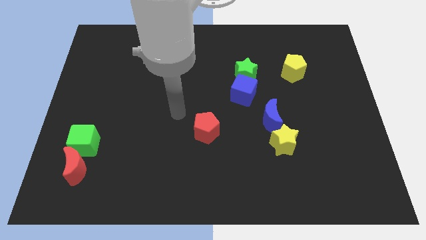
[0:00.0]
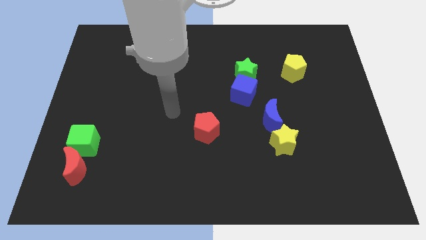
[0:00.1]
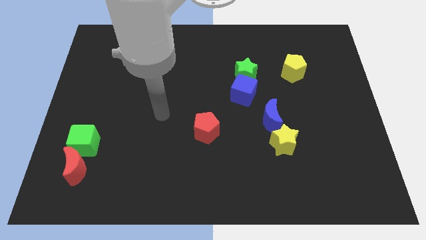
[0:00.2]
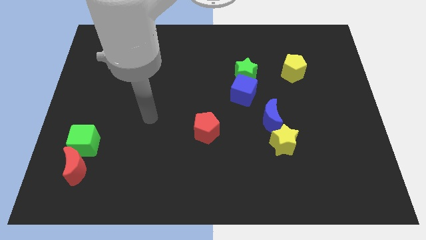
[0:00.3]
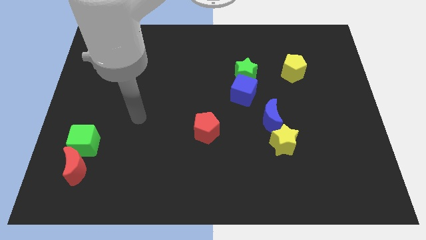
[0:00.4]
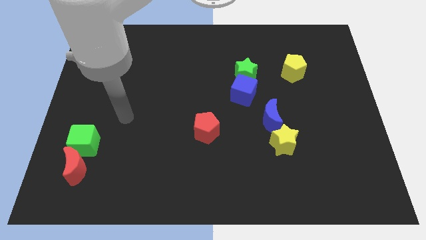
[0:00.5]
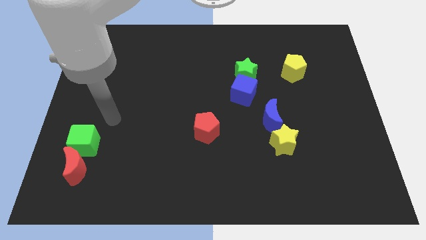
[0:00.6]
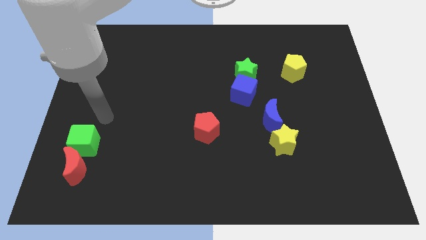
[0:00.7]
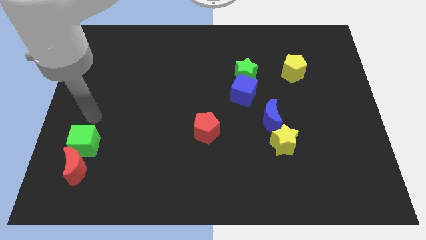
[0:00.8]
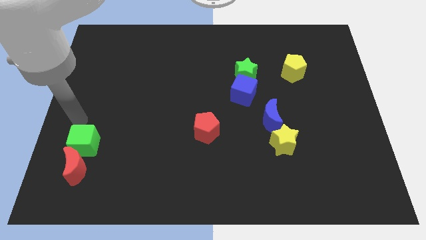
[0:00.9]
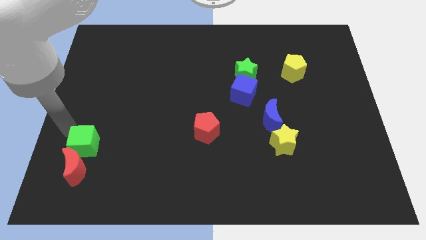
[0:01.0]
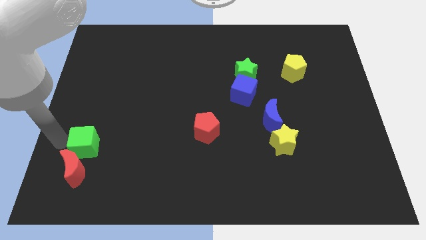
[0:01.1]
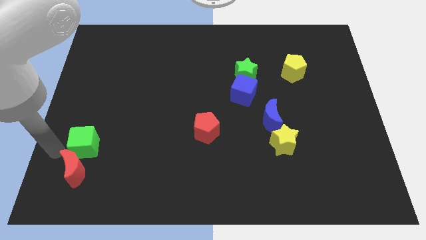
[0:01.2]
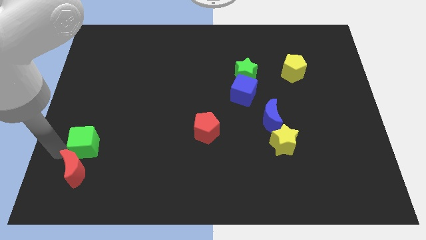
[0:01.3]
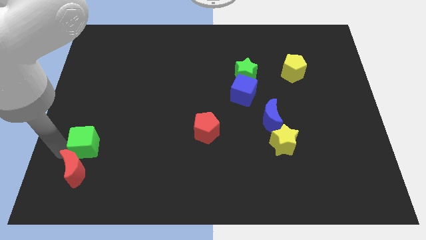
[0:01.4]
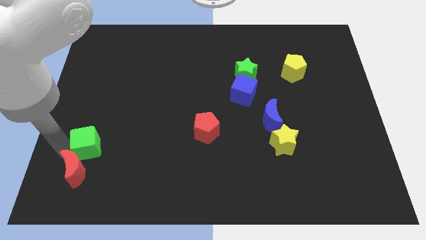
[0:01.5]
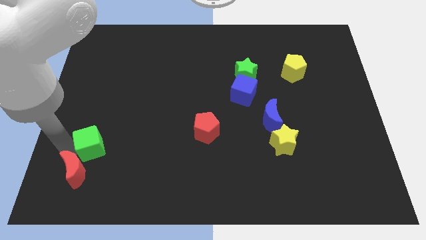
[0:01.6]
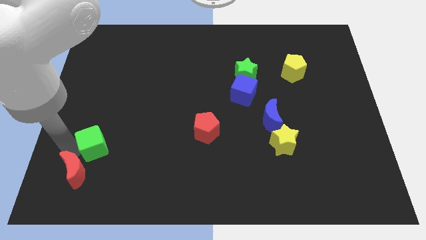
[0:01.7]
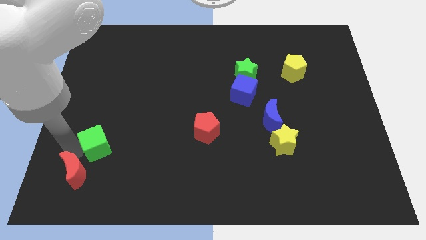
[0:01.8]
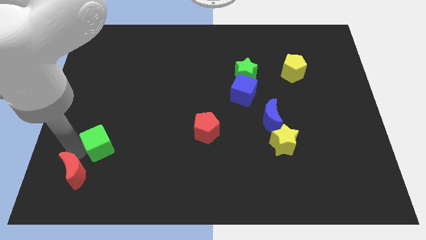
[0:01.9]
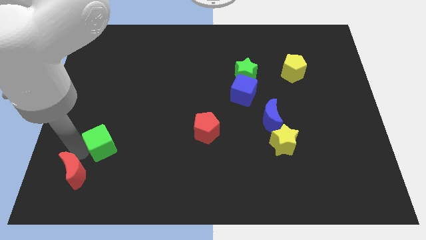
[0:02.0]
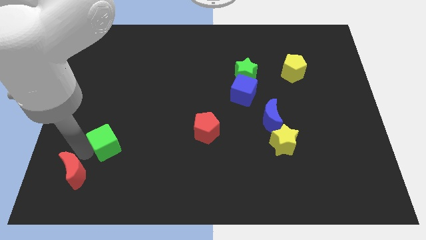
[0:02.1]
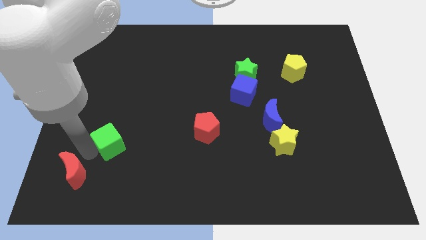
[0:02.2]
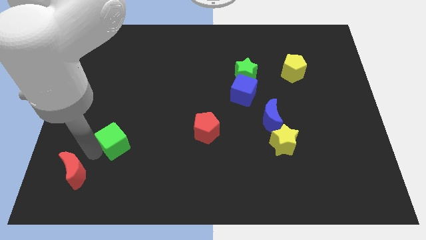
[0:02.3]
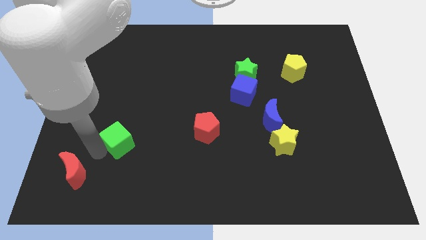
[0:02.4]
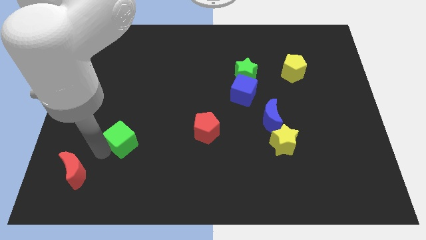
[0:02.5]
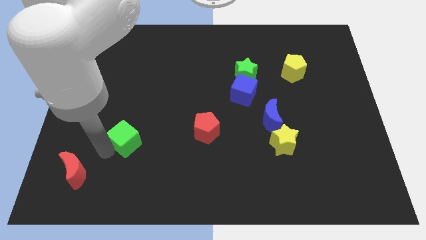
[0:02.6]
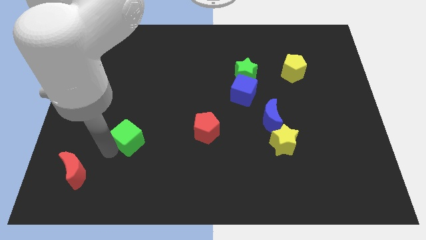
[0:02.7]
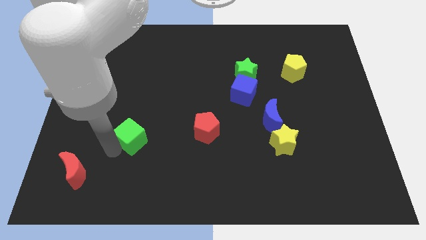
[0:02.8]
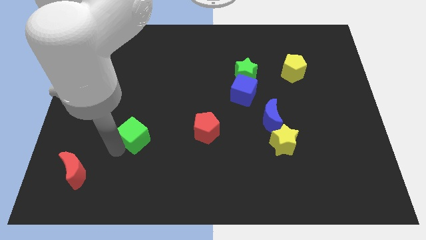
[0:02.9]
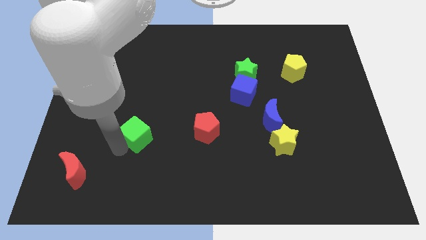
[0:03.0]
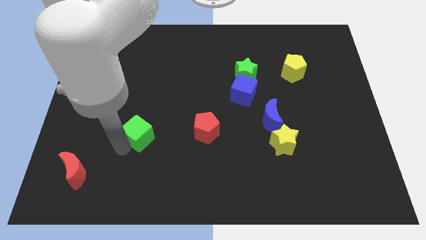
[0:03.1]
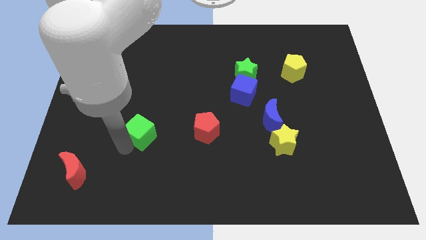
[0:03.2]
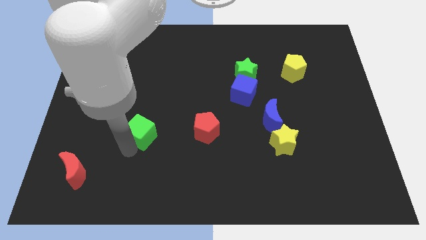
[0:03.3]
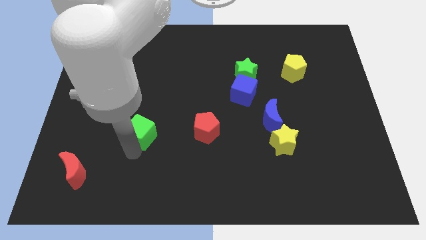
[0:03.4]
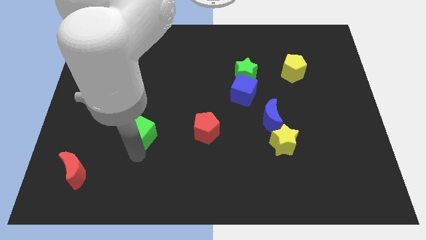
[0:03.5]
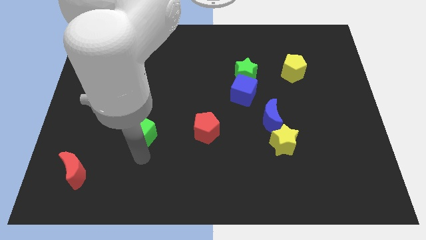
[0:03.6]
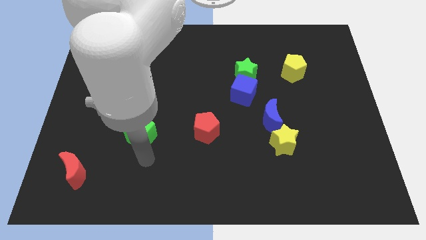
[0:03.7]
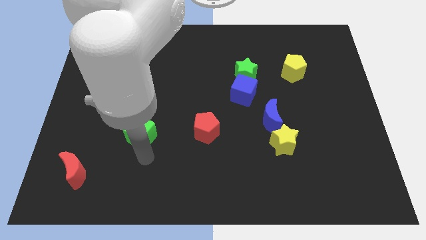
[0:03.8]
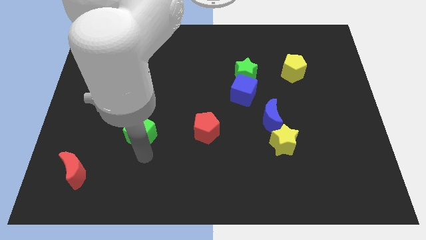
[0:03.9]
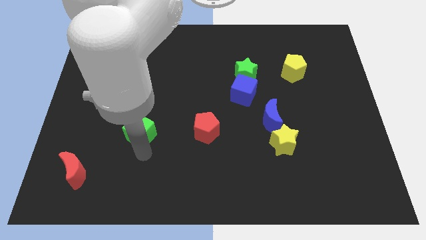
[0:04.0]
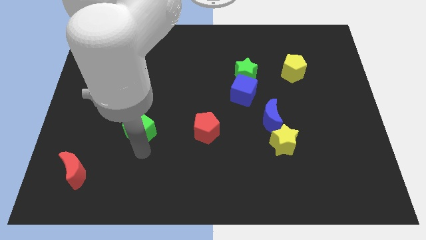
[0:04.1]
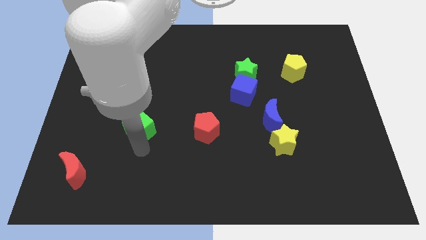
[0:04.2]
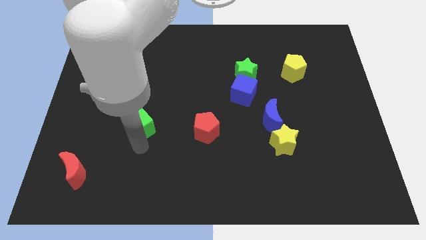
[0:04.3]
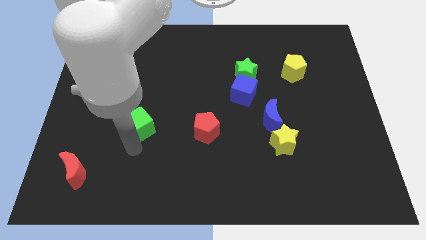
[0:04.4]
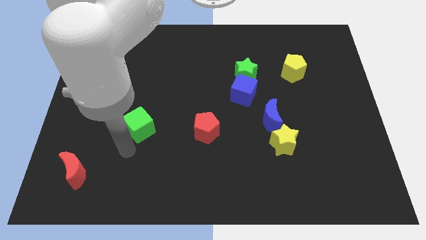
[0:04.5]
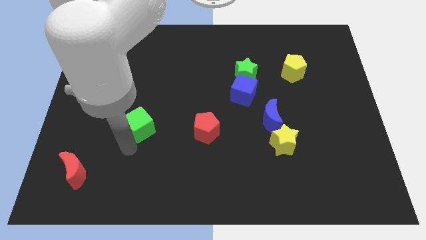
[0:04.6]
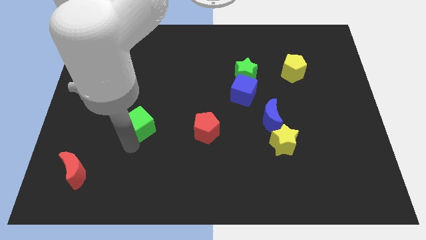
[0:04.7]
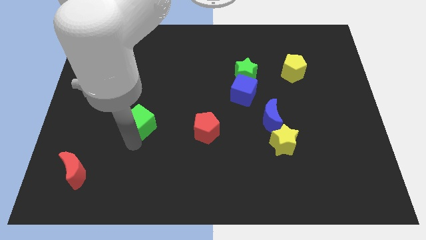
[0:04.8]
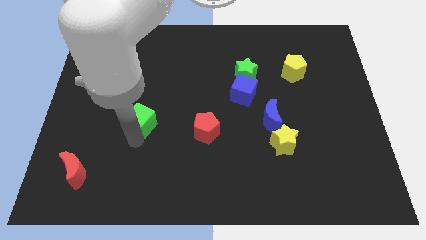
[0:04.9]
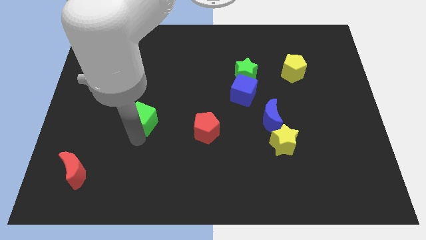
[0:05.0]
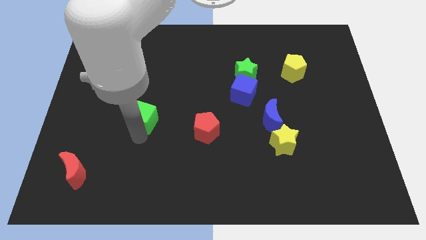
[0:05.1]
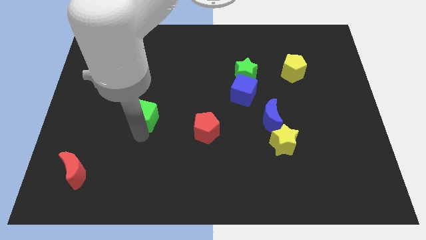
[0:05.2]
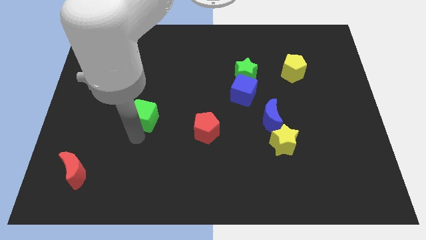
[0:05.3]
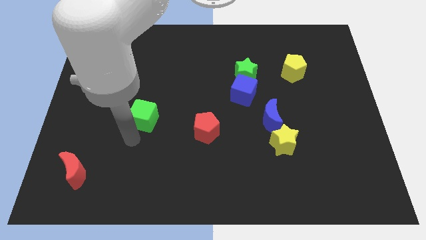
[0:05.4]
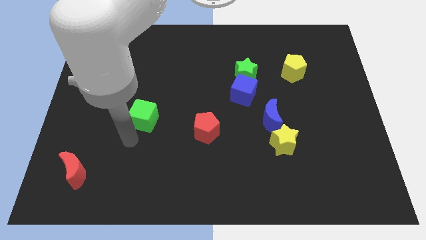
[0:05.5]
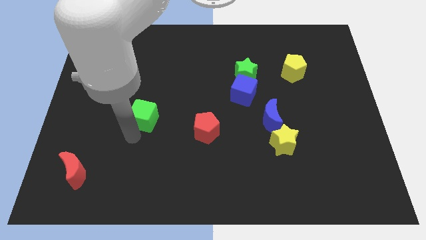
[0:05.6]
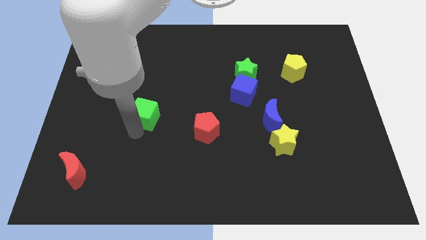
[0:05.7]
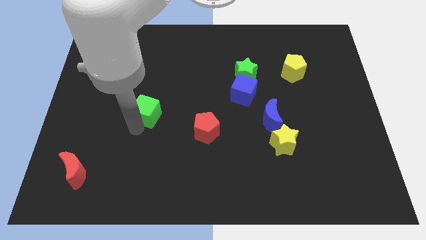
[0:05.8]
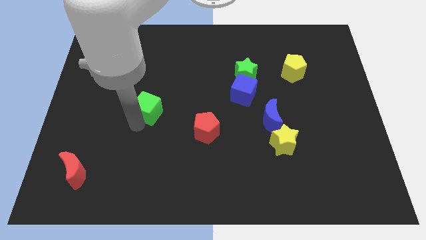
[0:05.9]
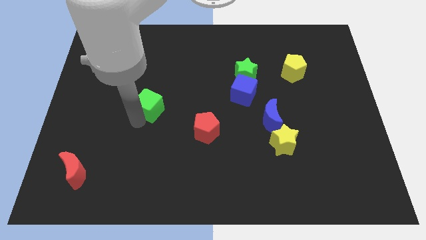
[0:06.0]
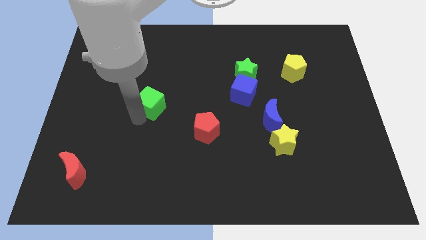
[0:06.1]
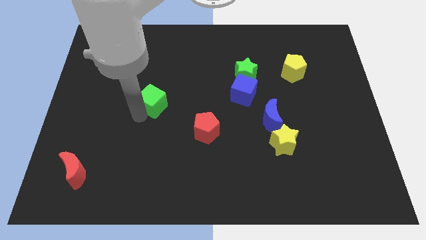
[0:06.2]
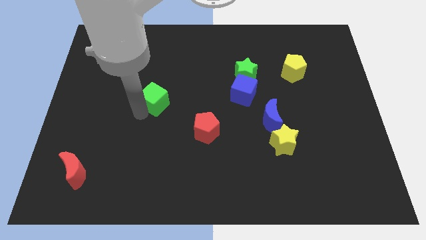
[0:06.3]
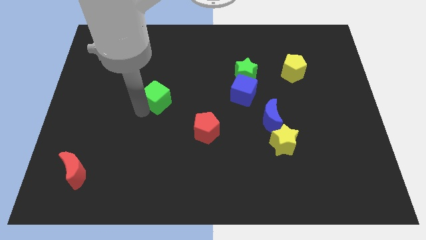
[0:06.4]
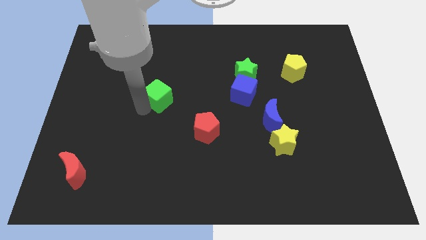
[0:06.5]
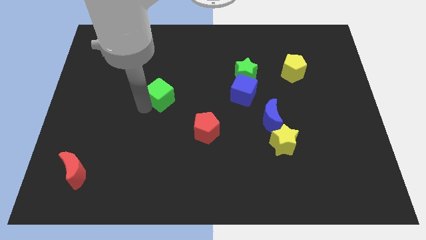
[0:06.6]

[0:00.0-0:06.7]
move the green cube up and right diagonally

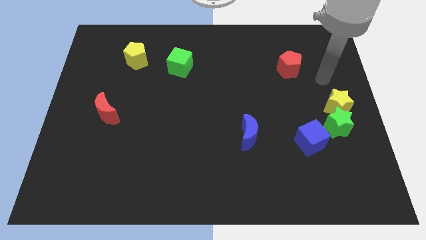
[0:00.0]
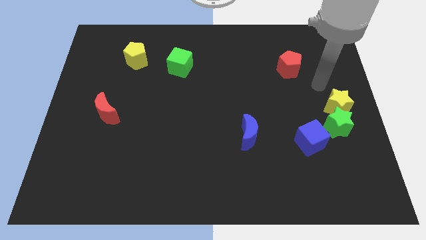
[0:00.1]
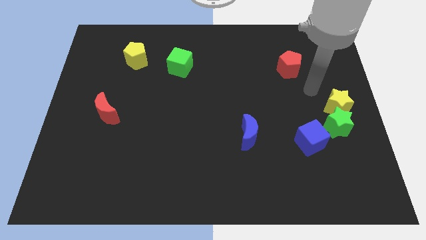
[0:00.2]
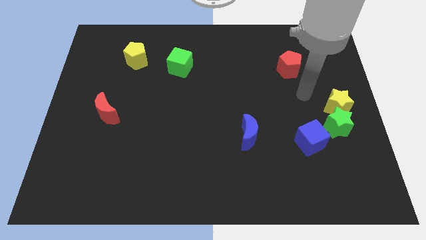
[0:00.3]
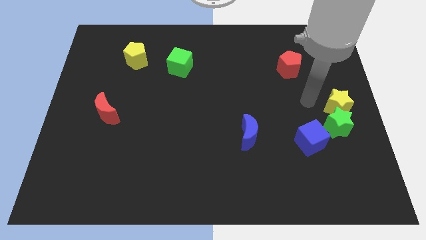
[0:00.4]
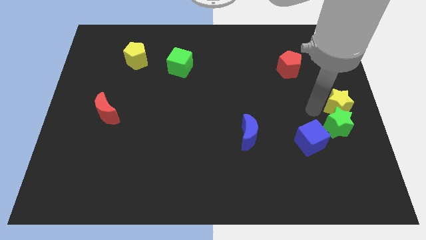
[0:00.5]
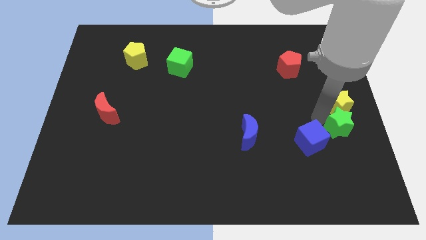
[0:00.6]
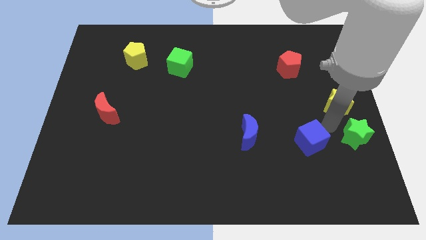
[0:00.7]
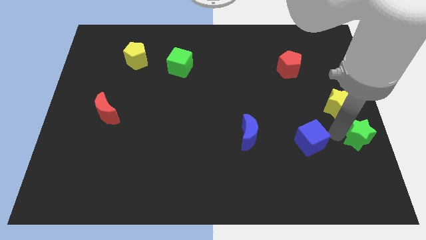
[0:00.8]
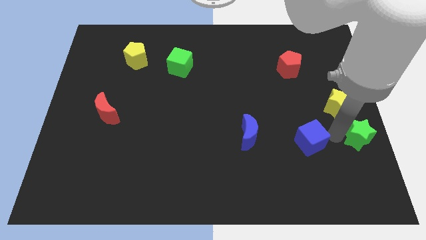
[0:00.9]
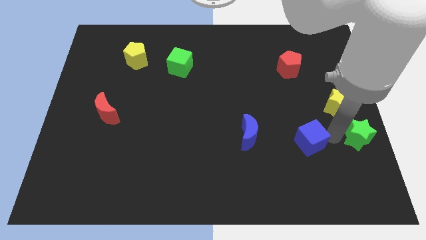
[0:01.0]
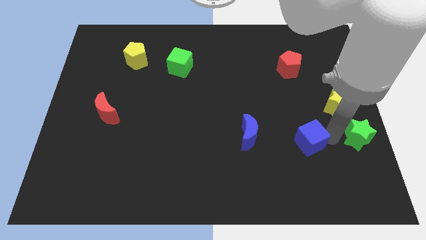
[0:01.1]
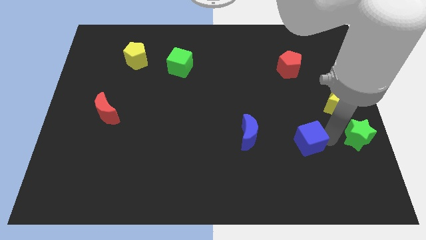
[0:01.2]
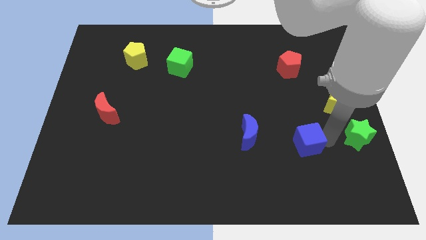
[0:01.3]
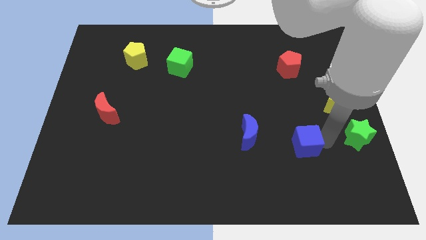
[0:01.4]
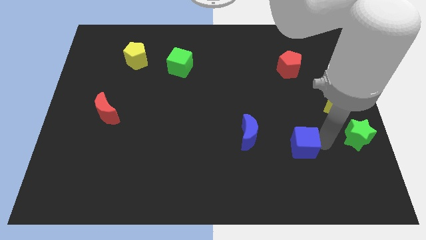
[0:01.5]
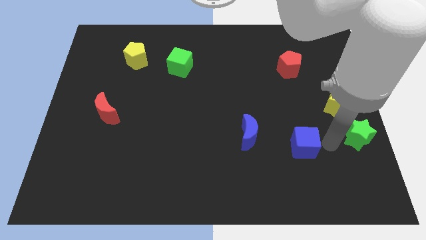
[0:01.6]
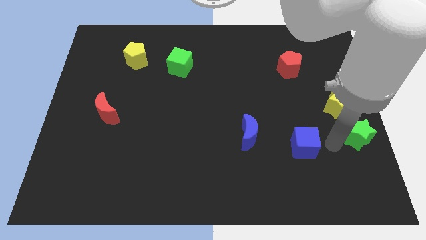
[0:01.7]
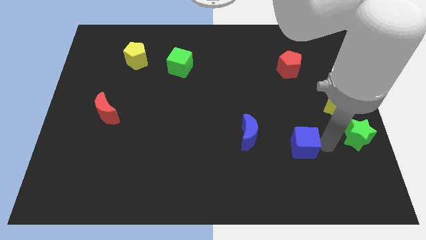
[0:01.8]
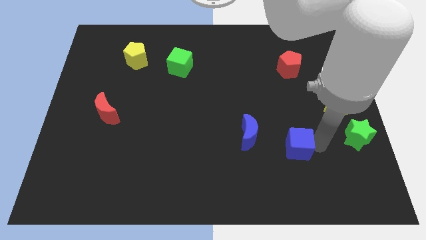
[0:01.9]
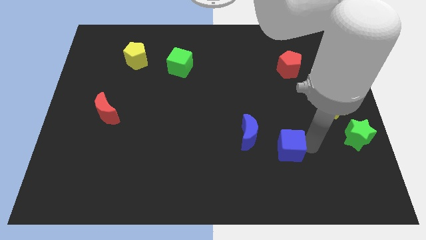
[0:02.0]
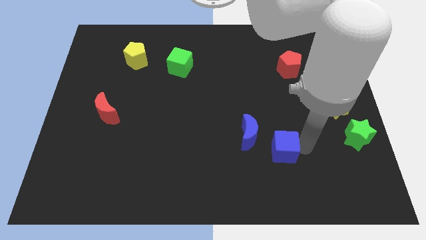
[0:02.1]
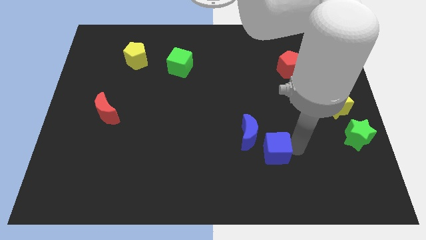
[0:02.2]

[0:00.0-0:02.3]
slide the blue cube left somewhat
